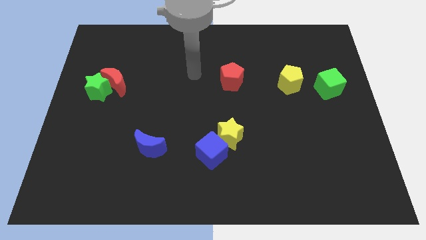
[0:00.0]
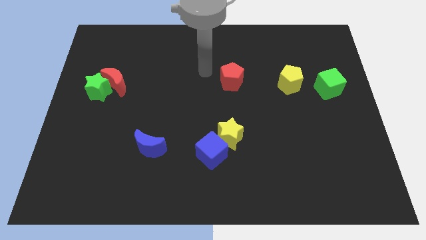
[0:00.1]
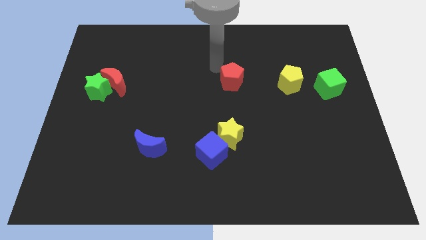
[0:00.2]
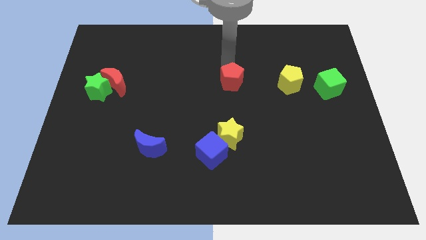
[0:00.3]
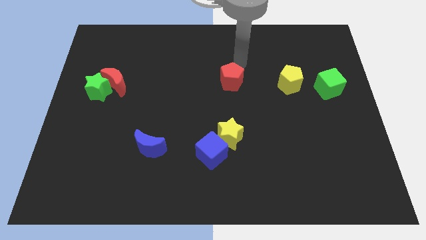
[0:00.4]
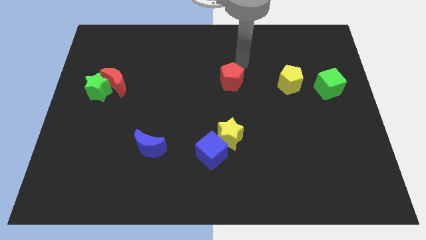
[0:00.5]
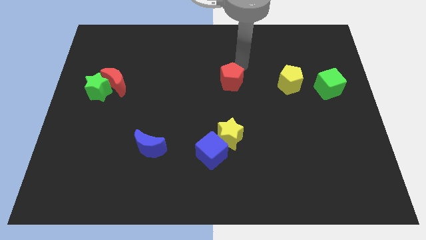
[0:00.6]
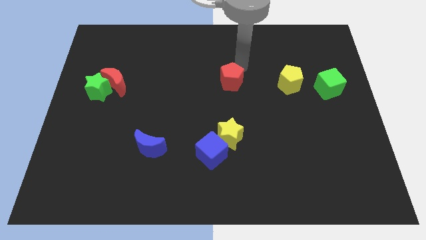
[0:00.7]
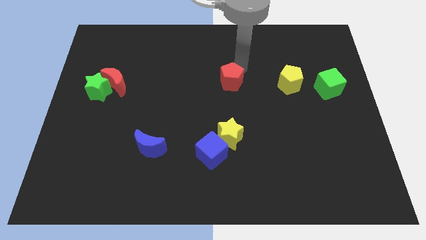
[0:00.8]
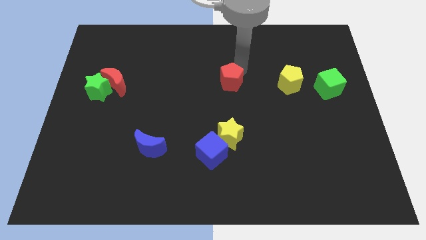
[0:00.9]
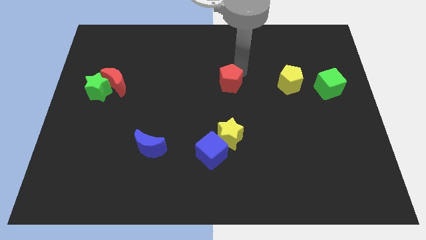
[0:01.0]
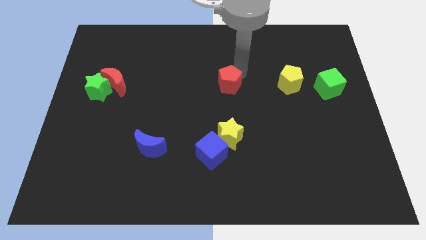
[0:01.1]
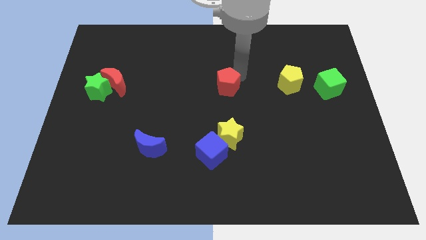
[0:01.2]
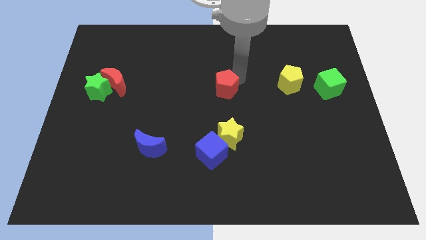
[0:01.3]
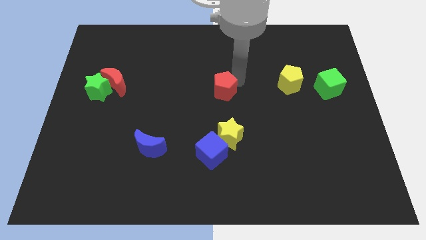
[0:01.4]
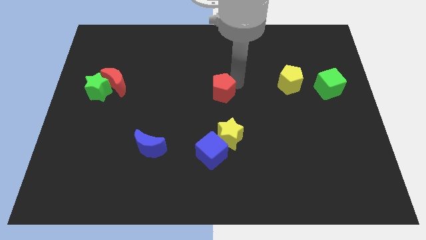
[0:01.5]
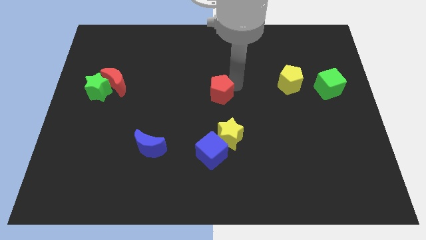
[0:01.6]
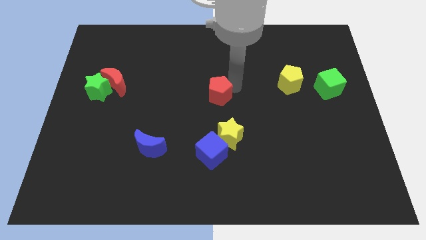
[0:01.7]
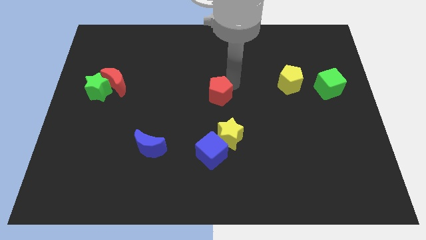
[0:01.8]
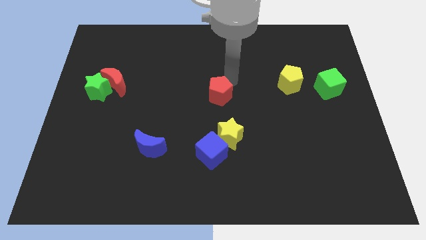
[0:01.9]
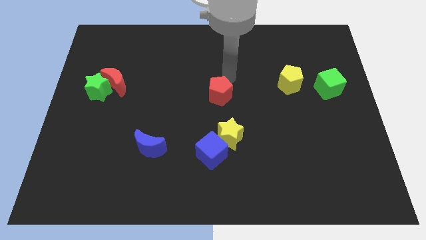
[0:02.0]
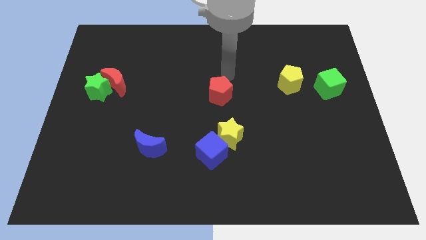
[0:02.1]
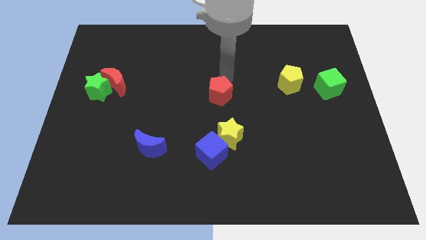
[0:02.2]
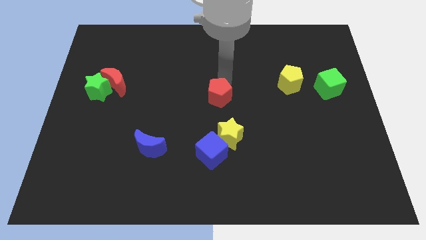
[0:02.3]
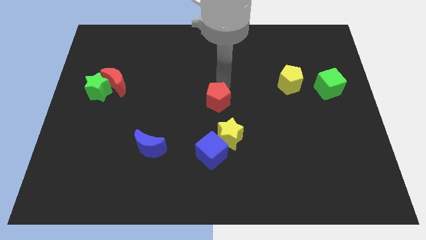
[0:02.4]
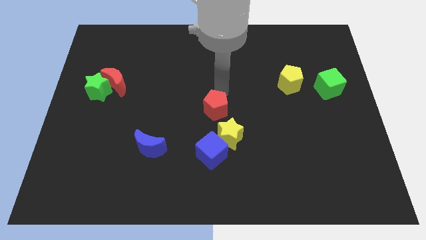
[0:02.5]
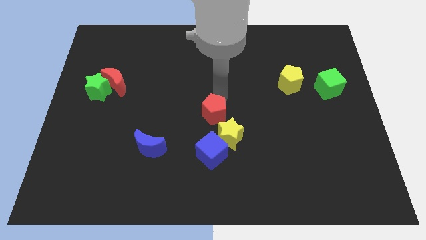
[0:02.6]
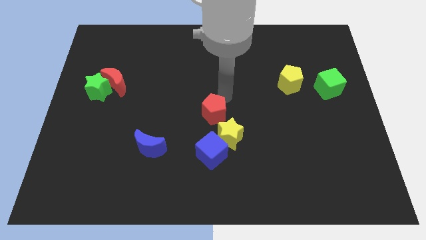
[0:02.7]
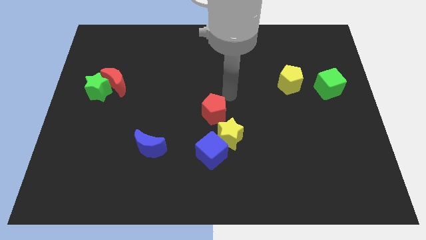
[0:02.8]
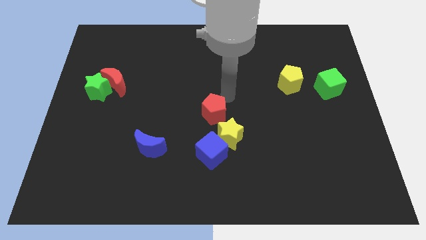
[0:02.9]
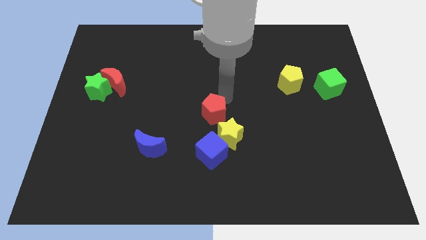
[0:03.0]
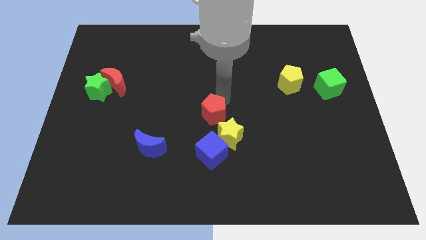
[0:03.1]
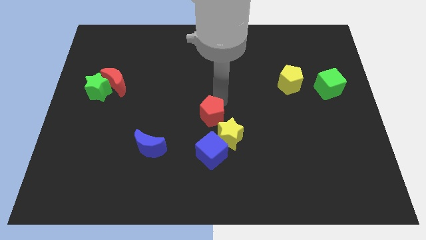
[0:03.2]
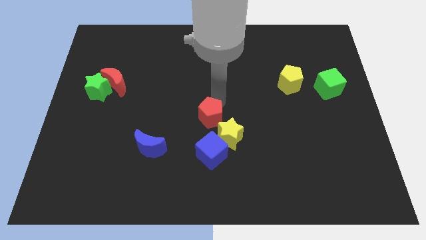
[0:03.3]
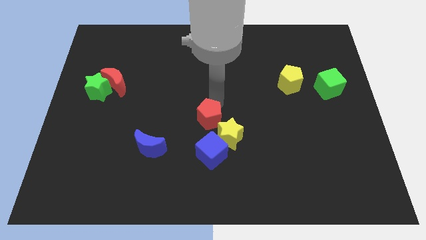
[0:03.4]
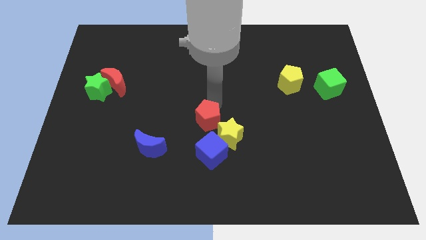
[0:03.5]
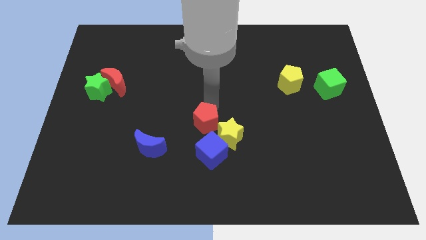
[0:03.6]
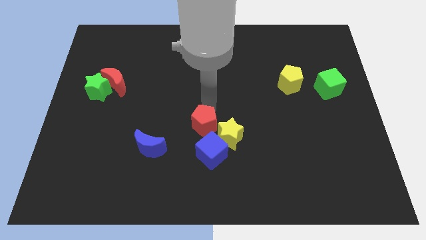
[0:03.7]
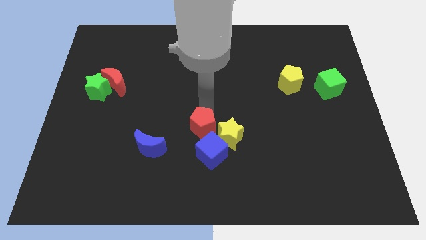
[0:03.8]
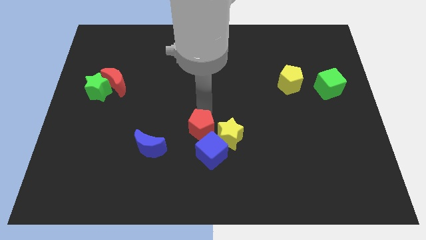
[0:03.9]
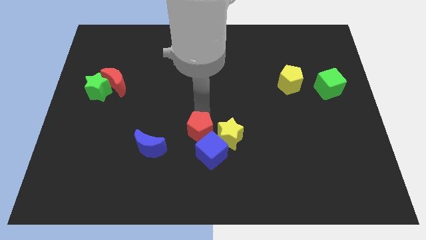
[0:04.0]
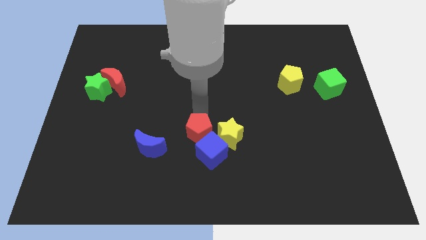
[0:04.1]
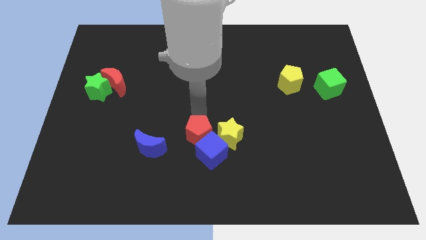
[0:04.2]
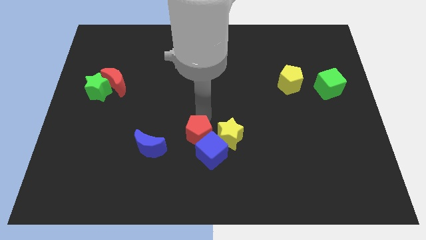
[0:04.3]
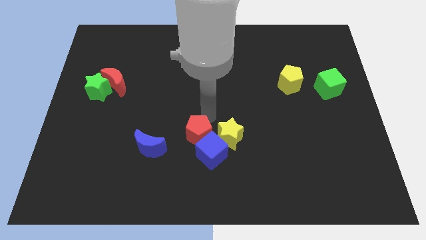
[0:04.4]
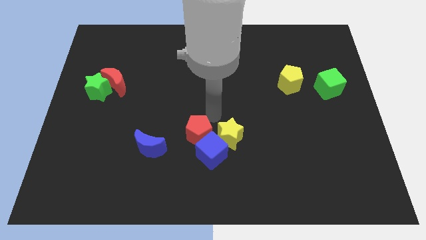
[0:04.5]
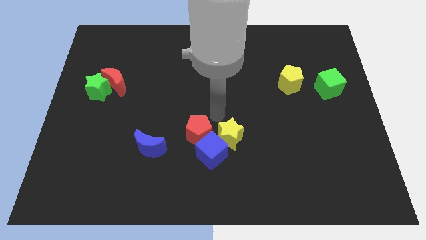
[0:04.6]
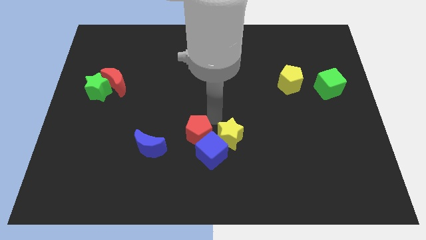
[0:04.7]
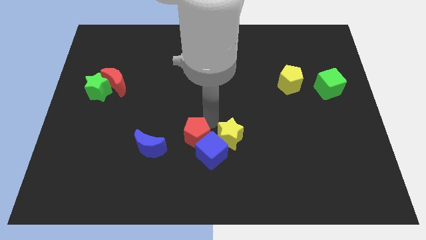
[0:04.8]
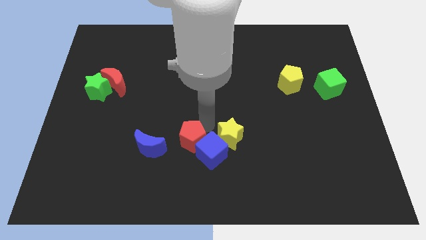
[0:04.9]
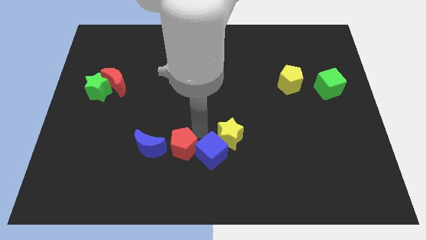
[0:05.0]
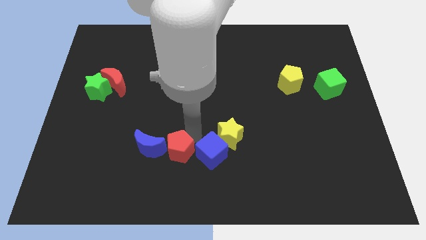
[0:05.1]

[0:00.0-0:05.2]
move the red pentagon diagonally down and to the right of the blue moon

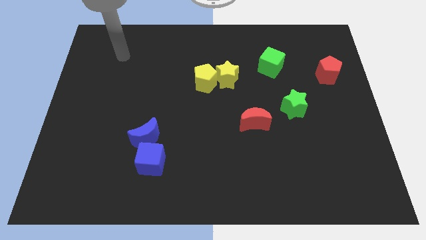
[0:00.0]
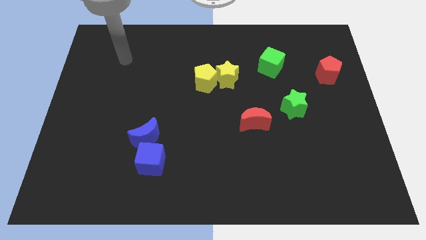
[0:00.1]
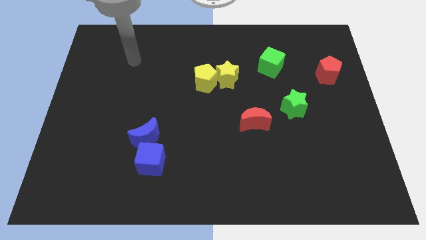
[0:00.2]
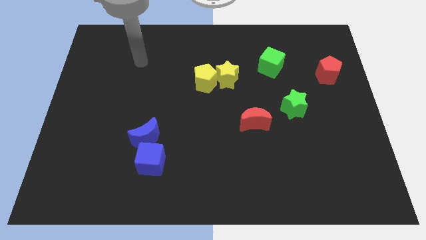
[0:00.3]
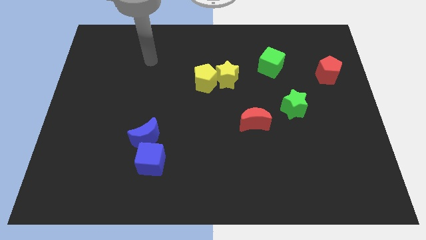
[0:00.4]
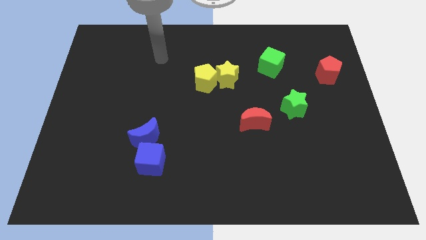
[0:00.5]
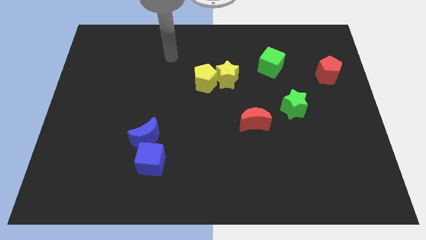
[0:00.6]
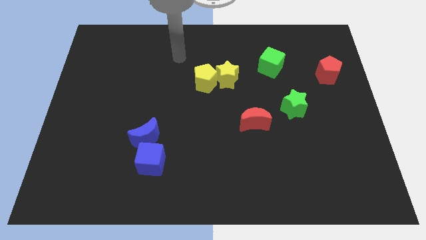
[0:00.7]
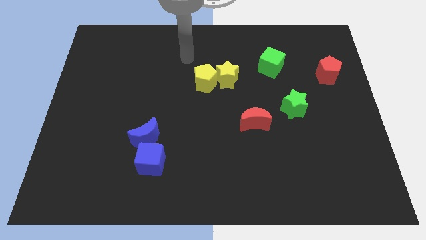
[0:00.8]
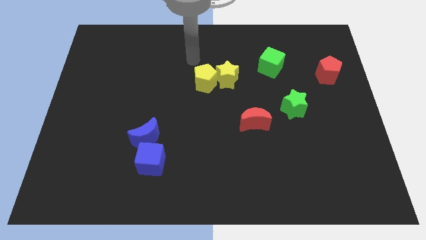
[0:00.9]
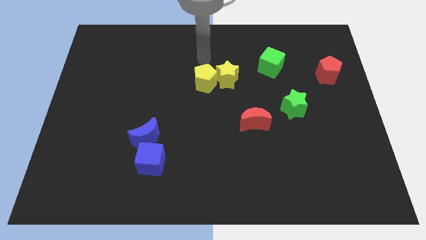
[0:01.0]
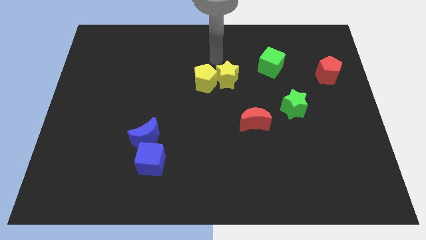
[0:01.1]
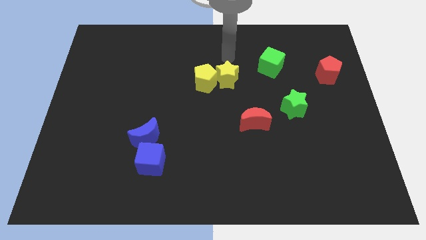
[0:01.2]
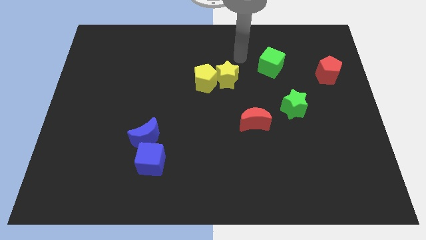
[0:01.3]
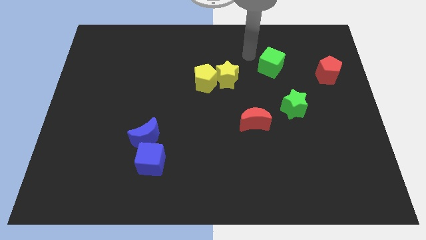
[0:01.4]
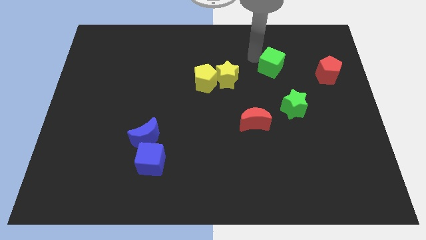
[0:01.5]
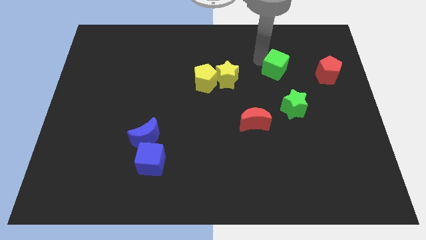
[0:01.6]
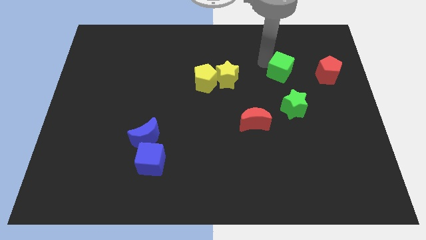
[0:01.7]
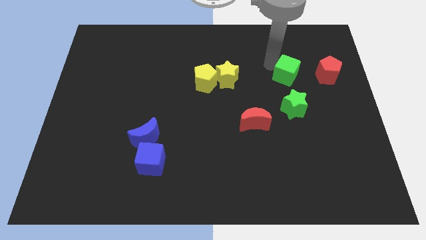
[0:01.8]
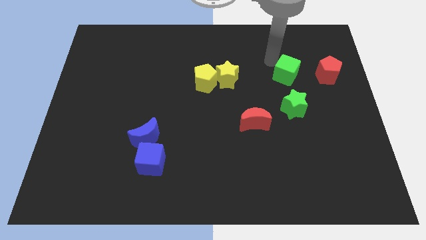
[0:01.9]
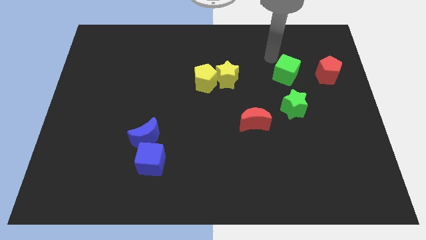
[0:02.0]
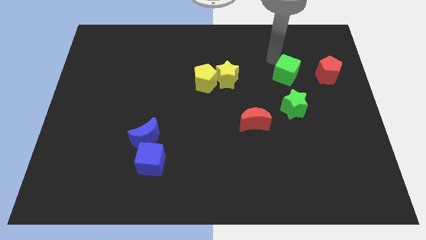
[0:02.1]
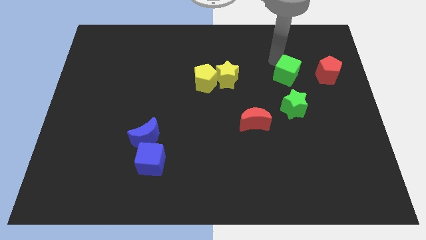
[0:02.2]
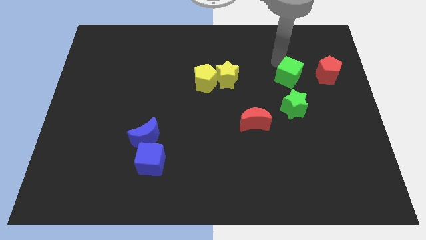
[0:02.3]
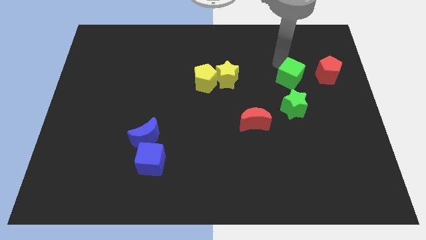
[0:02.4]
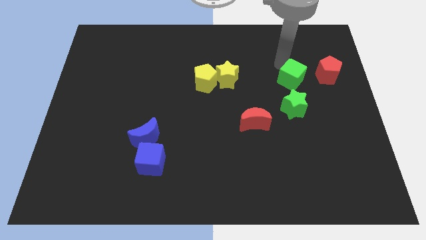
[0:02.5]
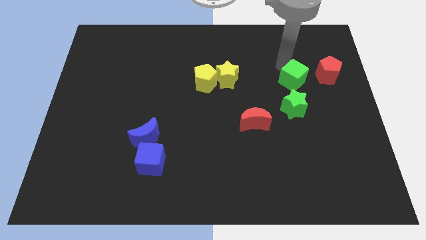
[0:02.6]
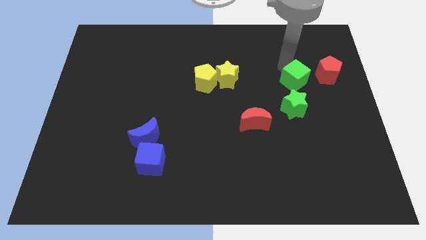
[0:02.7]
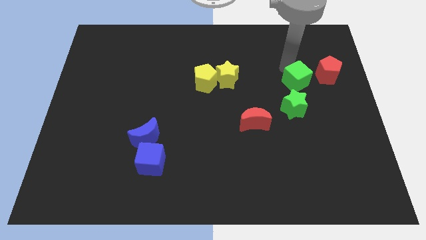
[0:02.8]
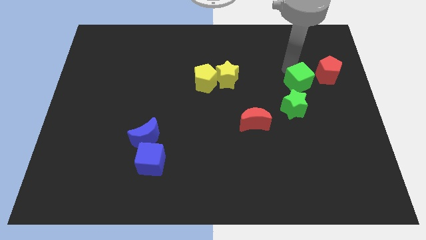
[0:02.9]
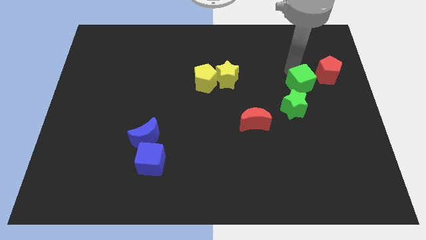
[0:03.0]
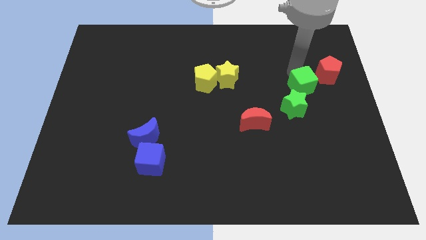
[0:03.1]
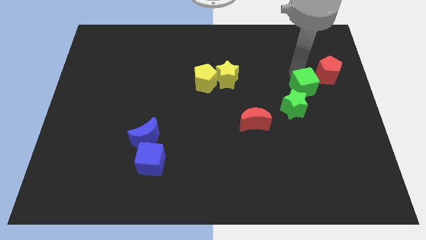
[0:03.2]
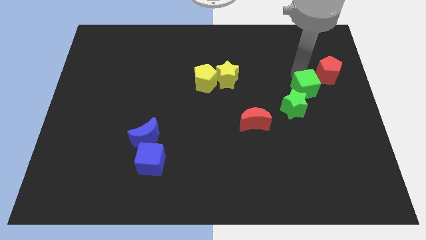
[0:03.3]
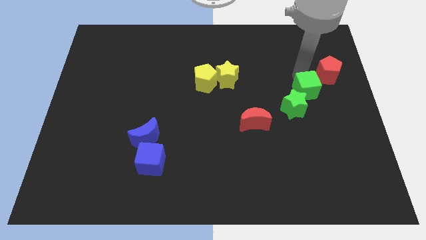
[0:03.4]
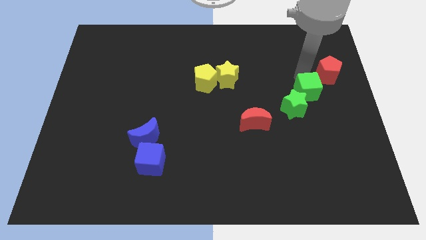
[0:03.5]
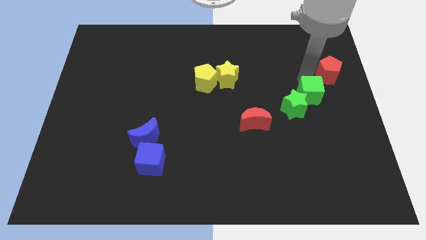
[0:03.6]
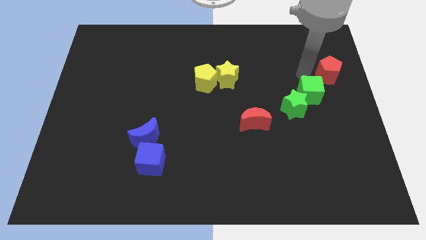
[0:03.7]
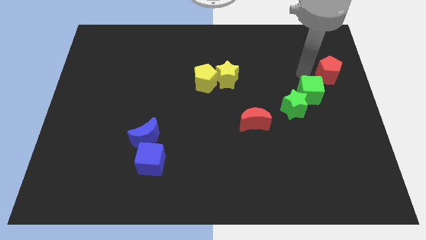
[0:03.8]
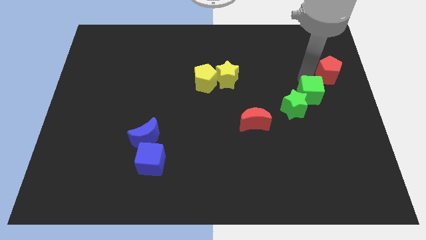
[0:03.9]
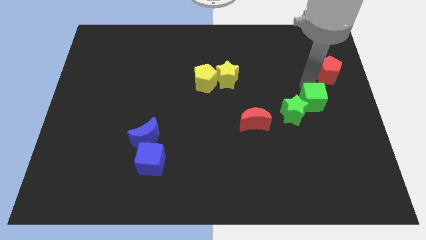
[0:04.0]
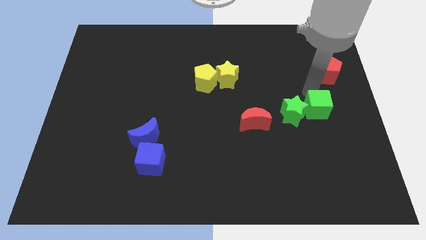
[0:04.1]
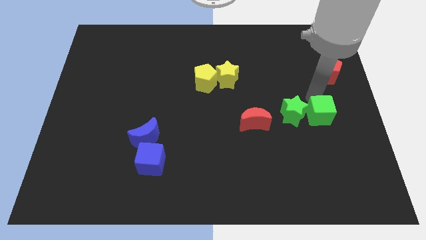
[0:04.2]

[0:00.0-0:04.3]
push the green cube to the bottom right of the green star
